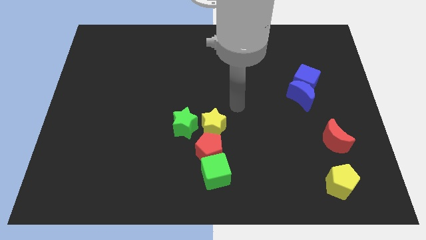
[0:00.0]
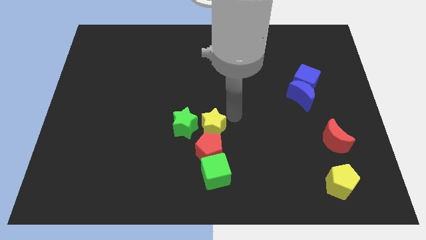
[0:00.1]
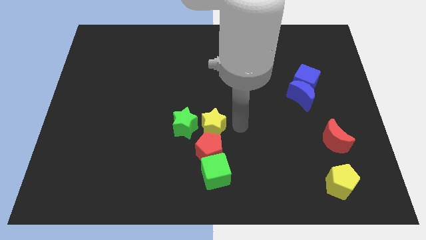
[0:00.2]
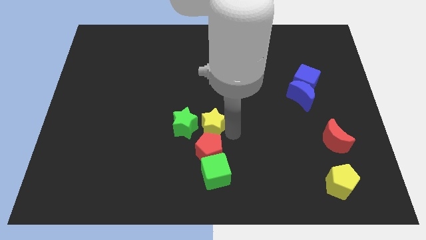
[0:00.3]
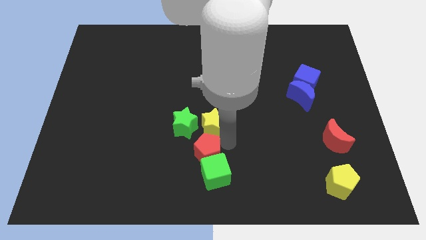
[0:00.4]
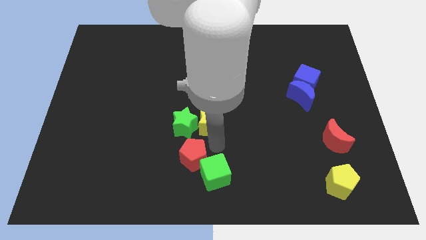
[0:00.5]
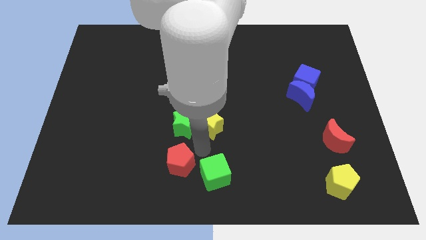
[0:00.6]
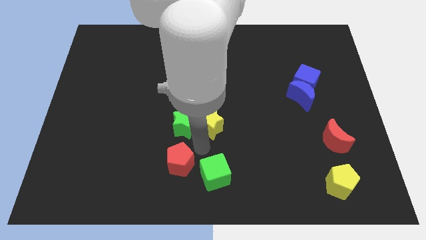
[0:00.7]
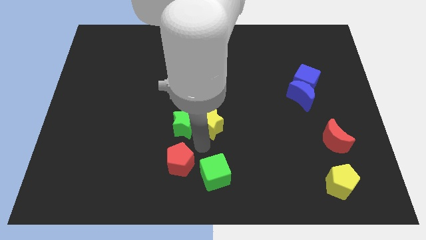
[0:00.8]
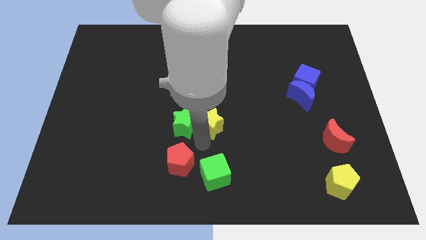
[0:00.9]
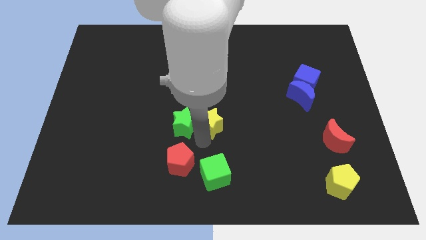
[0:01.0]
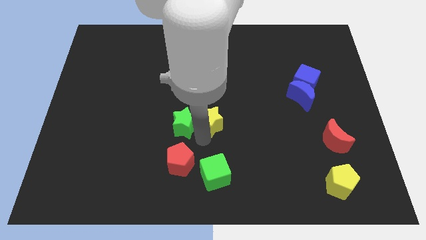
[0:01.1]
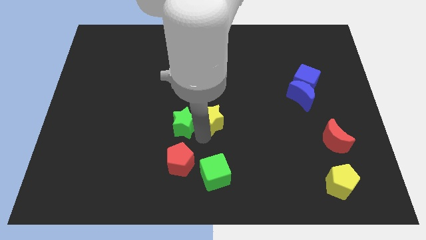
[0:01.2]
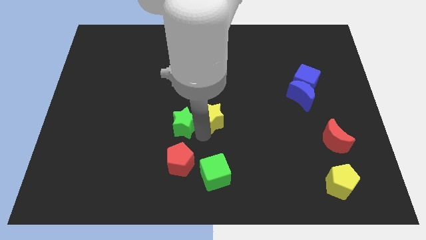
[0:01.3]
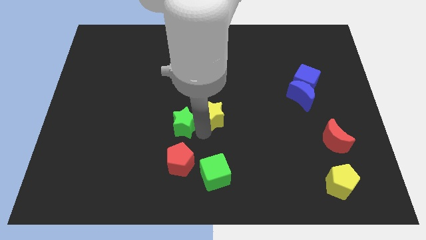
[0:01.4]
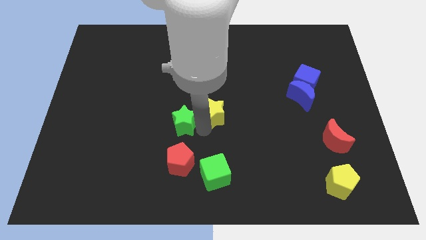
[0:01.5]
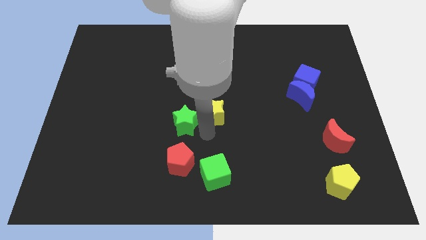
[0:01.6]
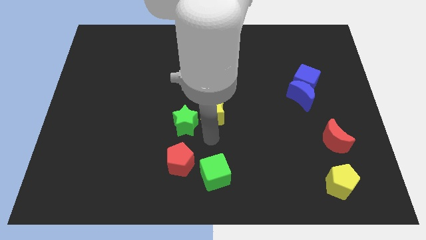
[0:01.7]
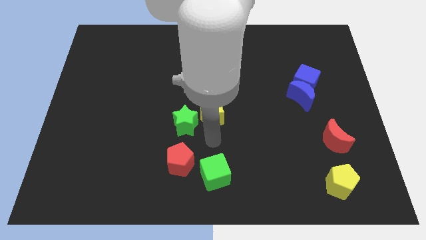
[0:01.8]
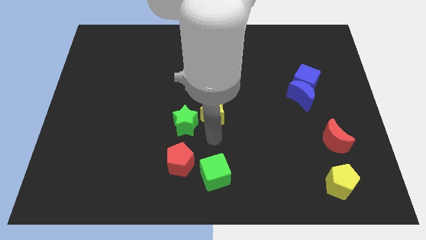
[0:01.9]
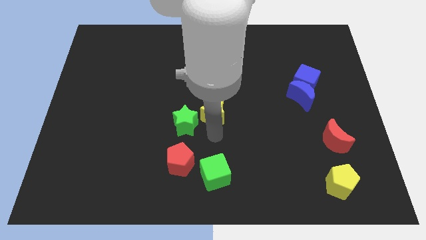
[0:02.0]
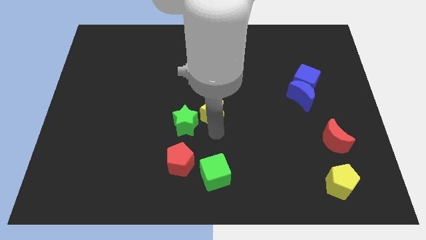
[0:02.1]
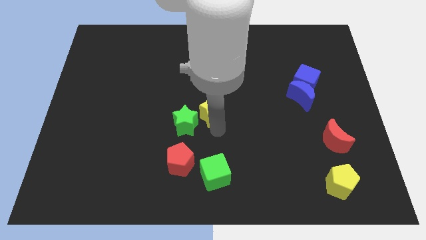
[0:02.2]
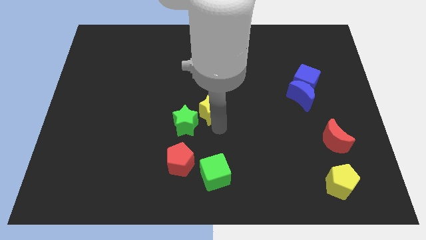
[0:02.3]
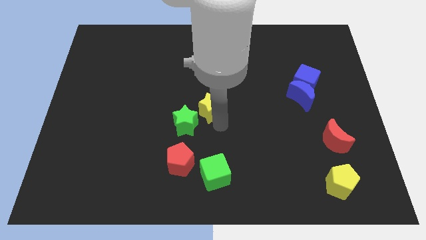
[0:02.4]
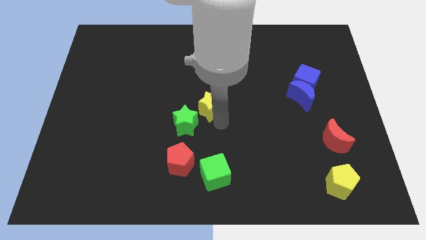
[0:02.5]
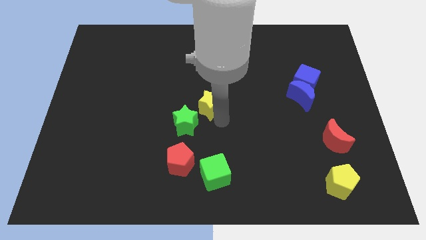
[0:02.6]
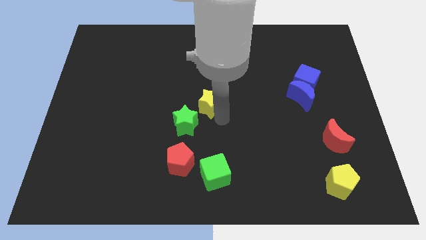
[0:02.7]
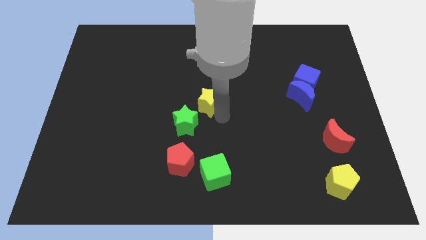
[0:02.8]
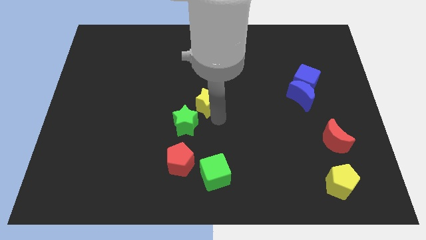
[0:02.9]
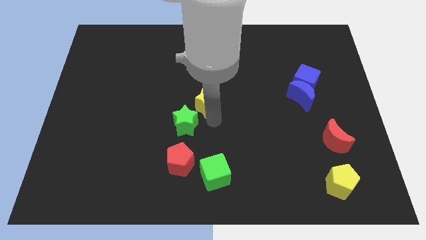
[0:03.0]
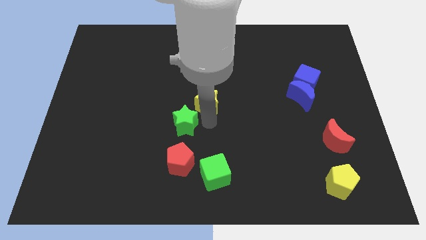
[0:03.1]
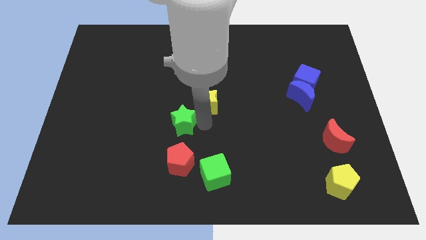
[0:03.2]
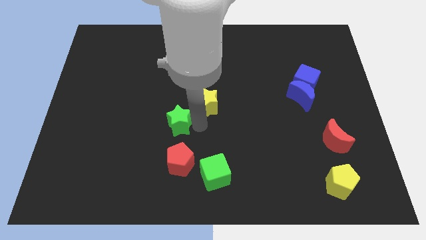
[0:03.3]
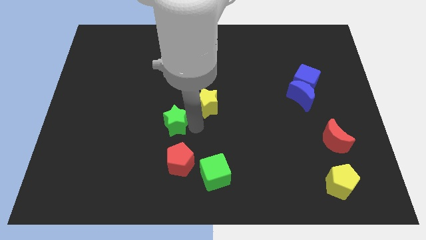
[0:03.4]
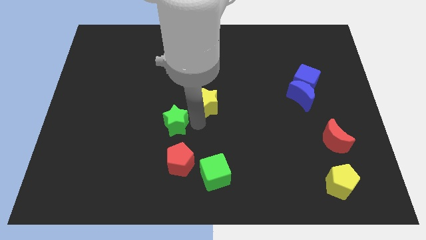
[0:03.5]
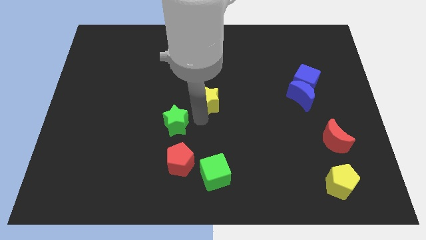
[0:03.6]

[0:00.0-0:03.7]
slide the yellow star upwards somewhat

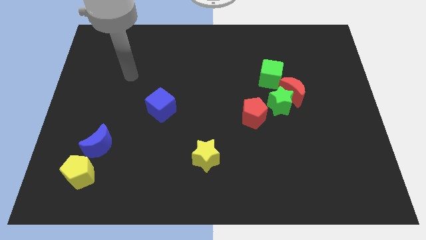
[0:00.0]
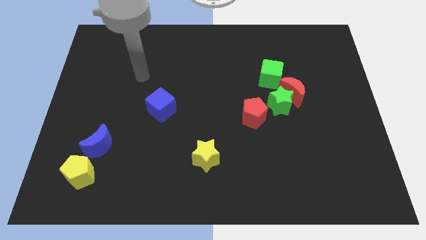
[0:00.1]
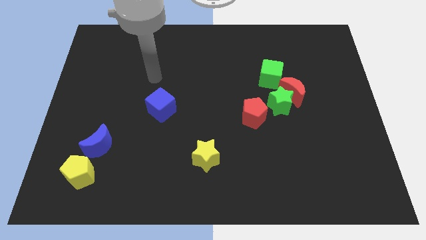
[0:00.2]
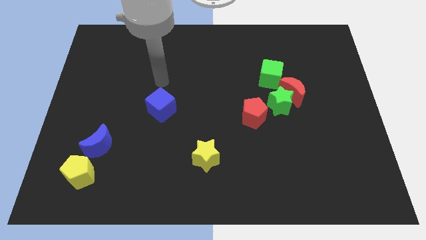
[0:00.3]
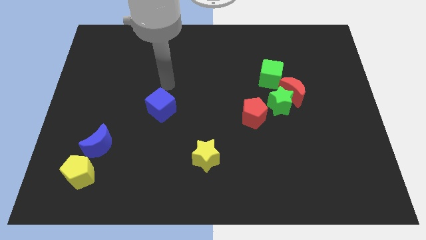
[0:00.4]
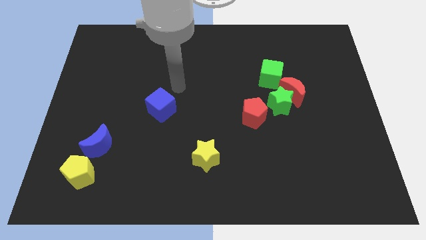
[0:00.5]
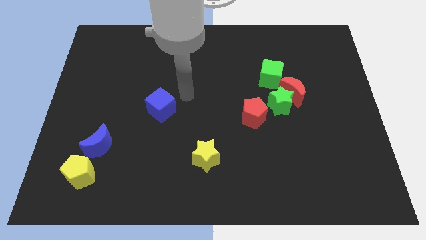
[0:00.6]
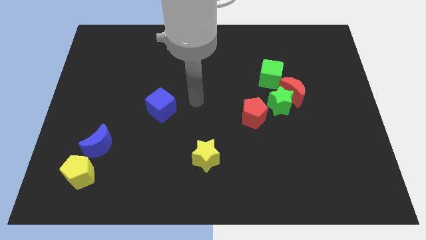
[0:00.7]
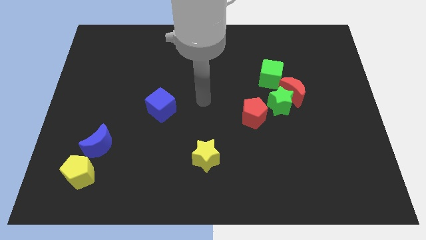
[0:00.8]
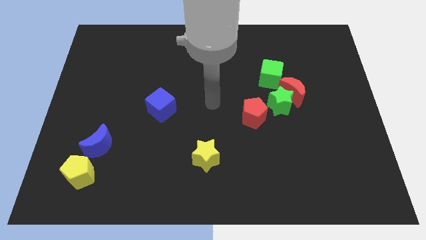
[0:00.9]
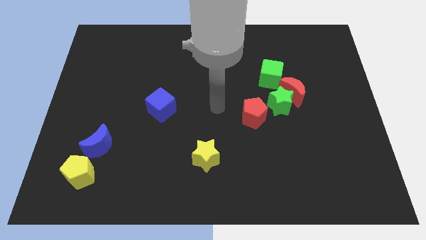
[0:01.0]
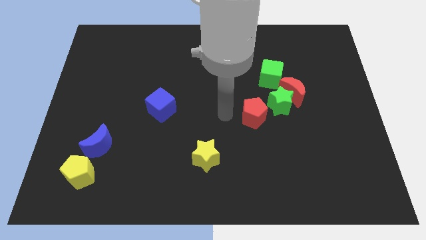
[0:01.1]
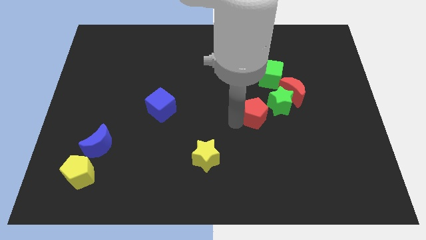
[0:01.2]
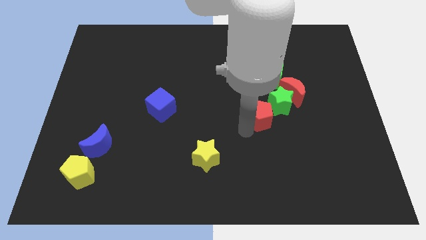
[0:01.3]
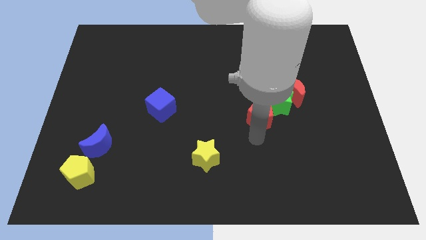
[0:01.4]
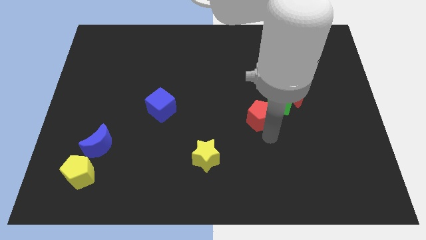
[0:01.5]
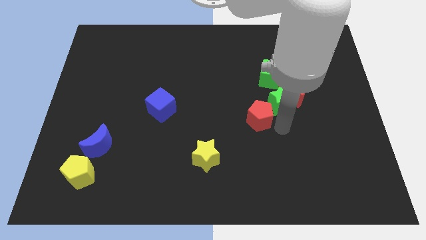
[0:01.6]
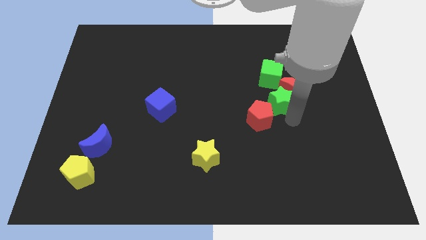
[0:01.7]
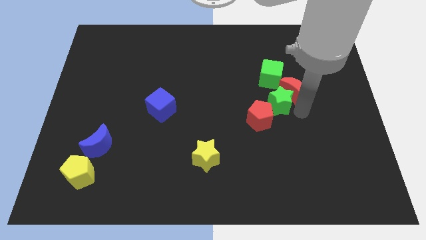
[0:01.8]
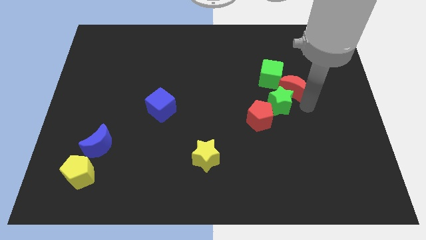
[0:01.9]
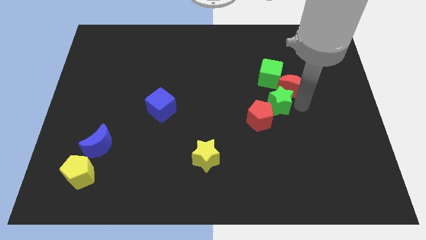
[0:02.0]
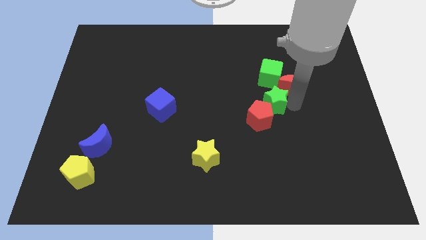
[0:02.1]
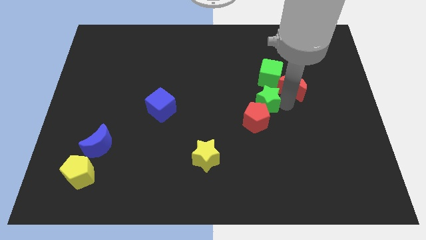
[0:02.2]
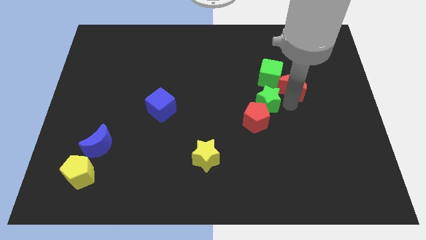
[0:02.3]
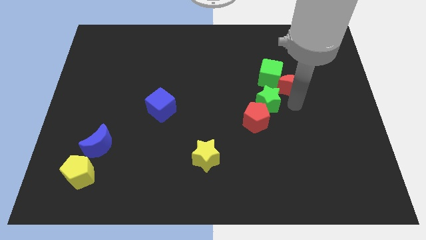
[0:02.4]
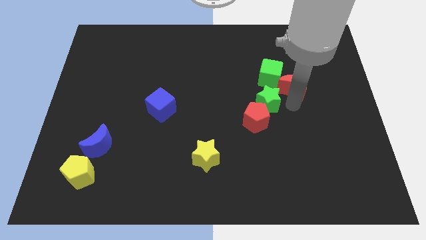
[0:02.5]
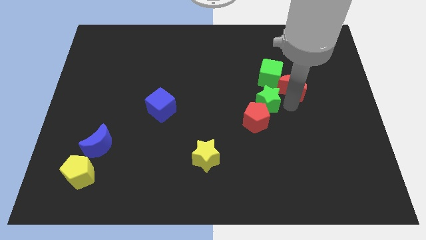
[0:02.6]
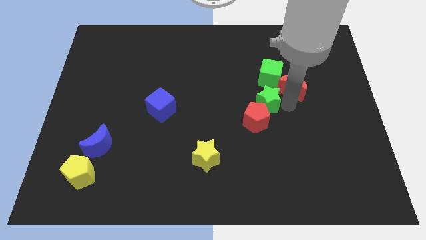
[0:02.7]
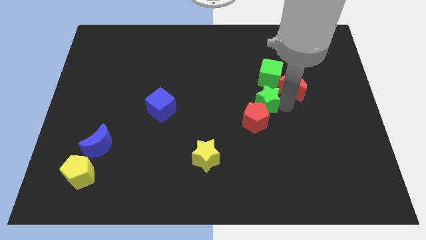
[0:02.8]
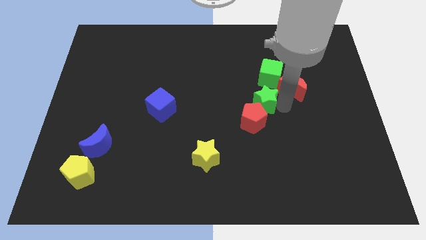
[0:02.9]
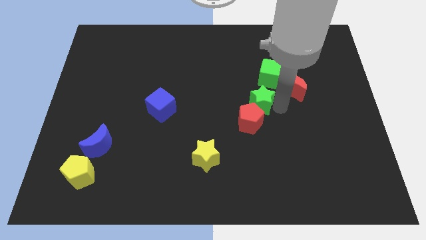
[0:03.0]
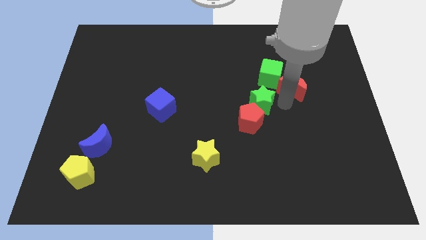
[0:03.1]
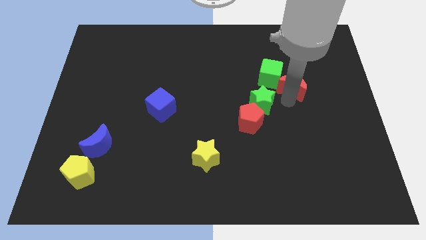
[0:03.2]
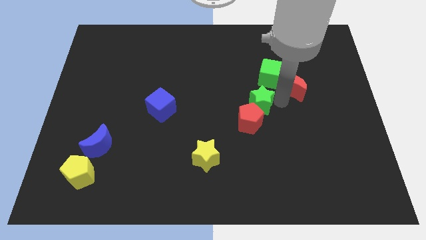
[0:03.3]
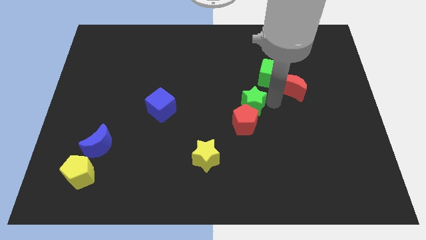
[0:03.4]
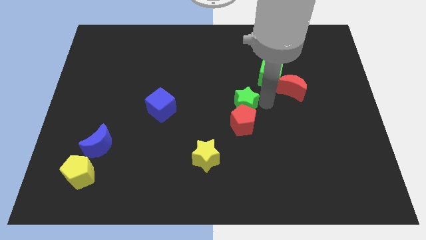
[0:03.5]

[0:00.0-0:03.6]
move the green star to the left slightly

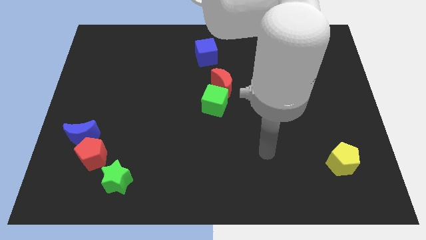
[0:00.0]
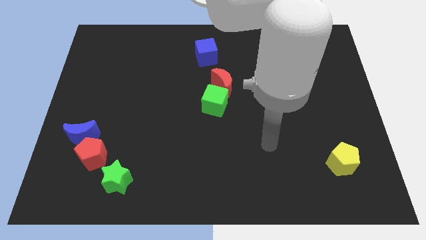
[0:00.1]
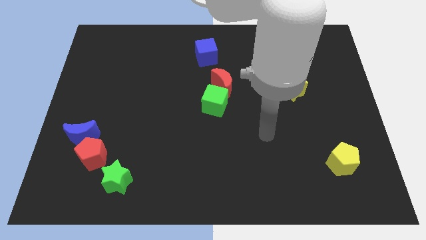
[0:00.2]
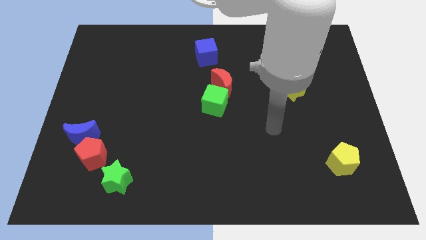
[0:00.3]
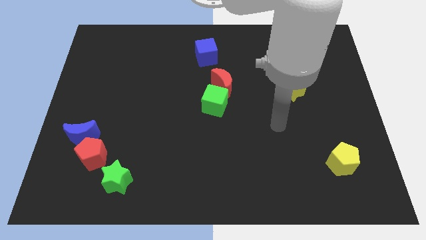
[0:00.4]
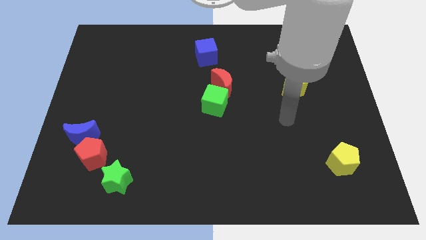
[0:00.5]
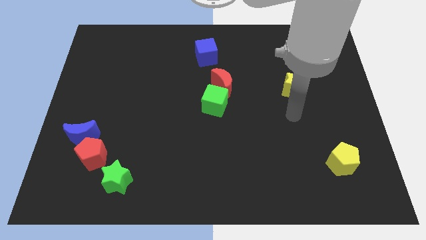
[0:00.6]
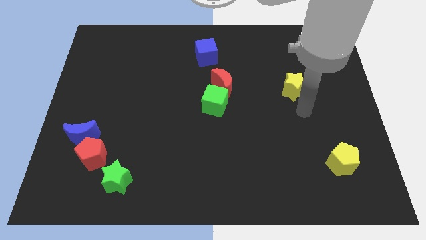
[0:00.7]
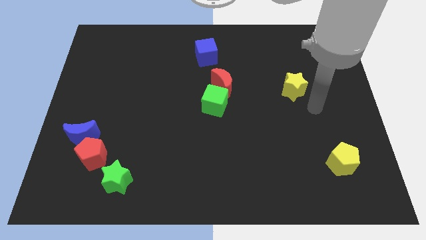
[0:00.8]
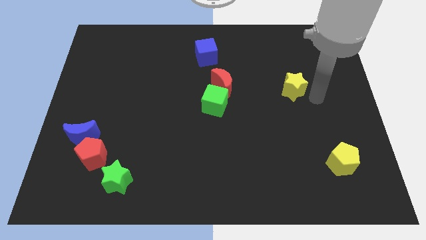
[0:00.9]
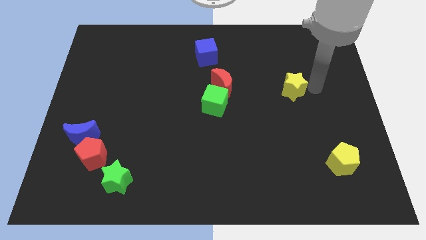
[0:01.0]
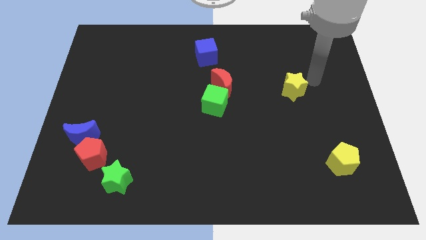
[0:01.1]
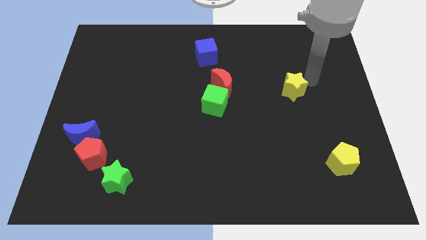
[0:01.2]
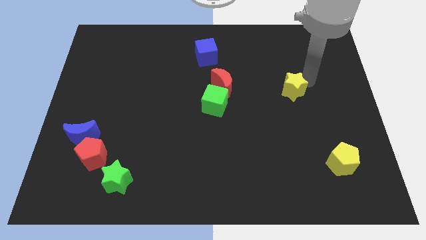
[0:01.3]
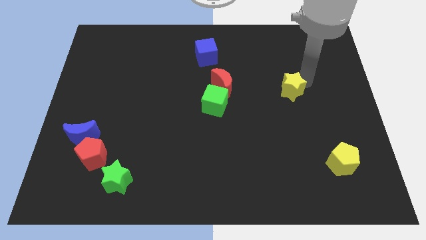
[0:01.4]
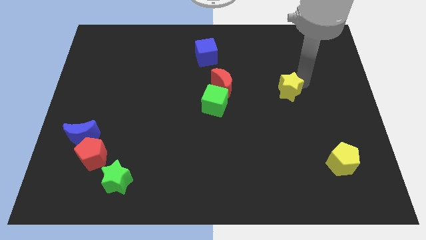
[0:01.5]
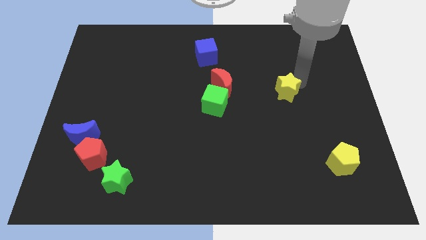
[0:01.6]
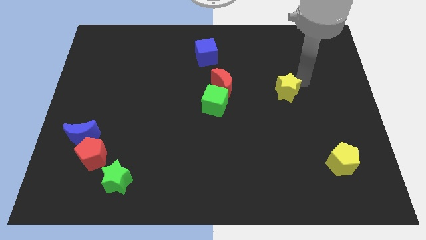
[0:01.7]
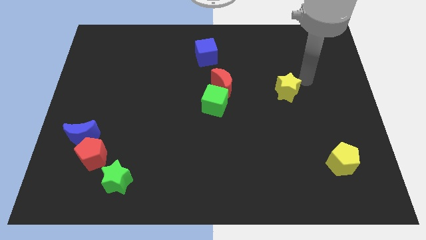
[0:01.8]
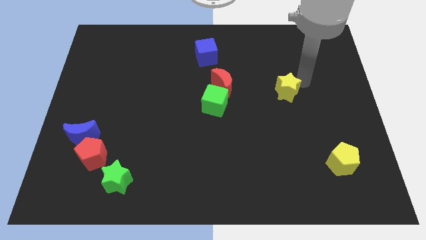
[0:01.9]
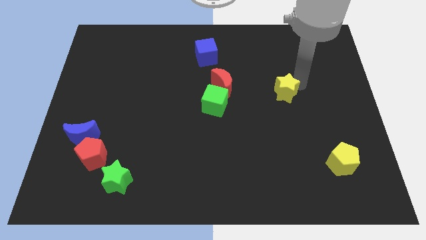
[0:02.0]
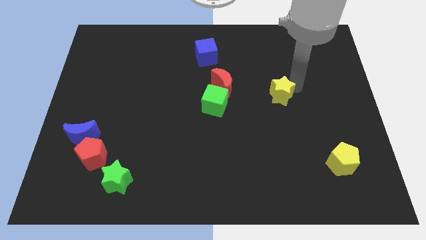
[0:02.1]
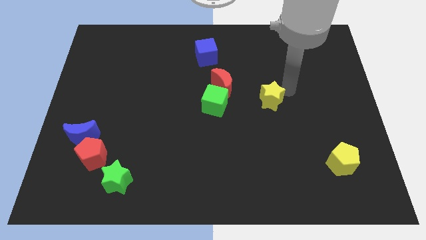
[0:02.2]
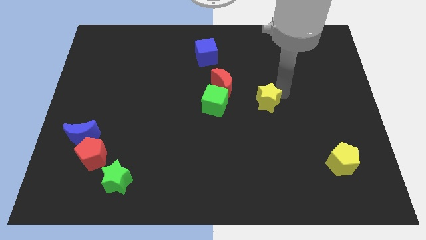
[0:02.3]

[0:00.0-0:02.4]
slide the yellow star a little down and left
